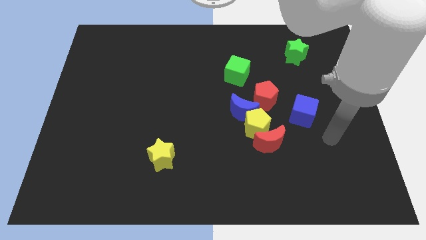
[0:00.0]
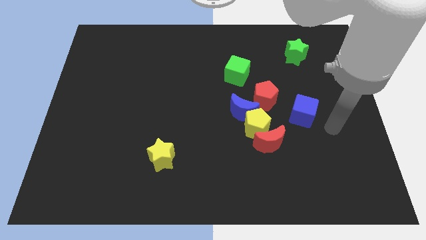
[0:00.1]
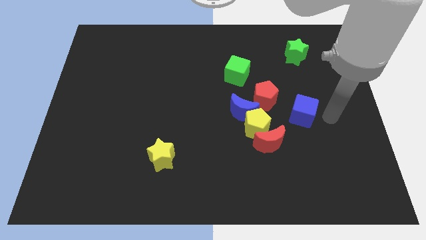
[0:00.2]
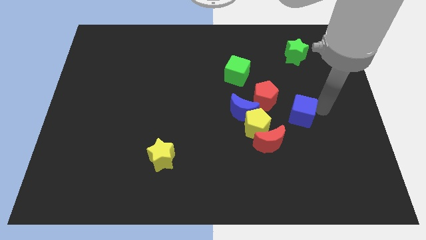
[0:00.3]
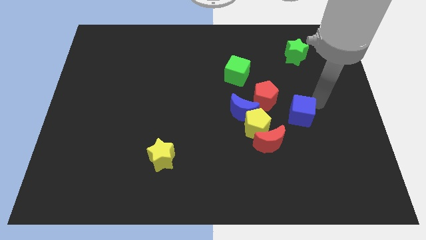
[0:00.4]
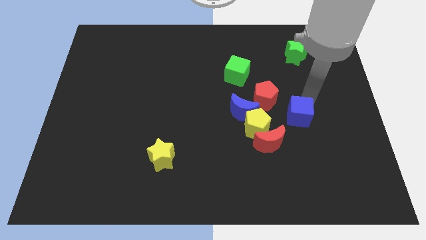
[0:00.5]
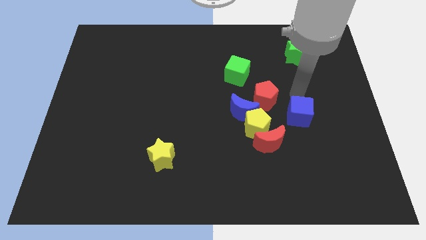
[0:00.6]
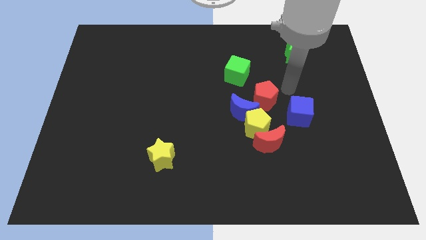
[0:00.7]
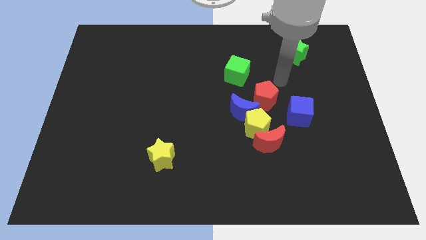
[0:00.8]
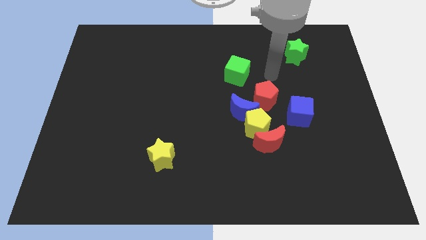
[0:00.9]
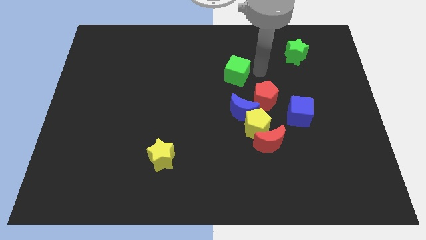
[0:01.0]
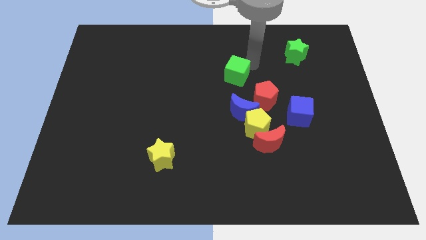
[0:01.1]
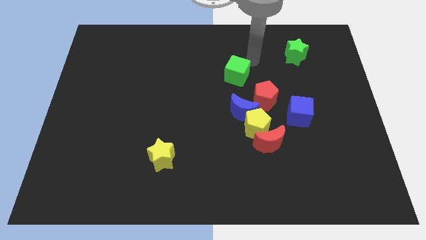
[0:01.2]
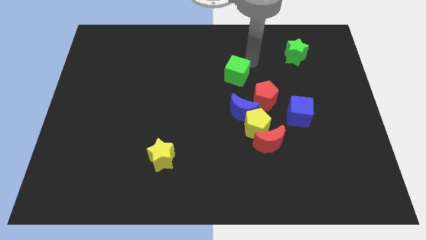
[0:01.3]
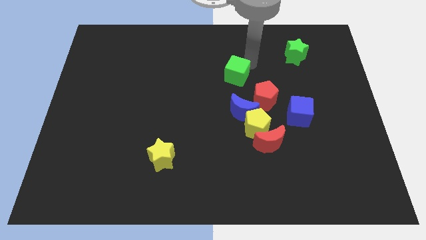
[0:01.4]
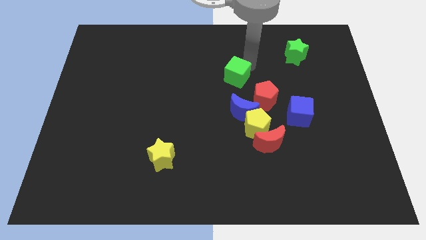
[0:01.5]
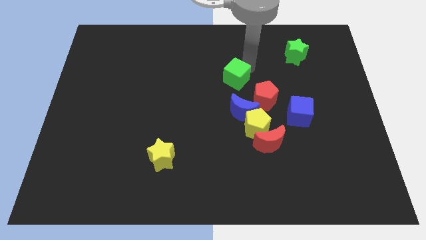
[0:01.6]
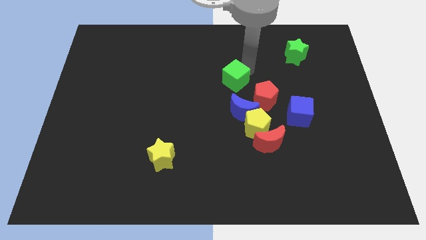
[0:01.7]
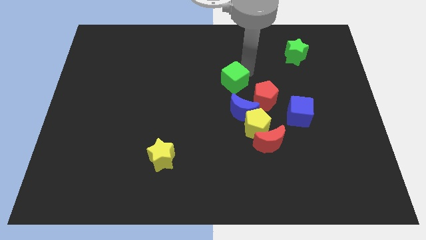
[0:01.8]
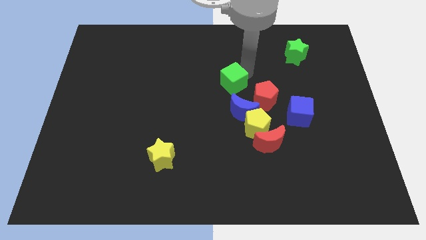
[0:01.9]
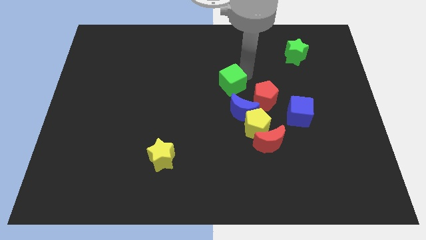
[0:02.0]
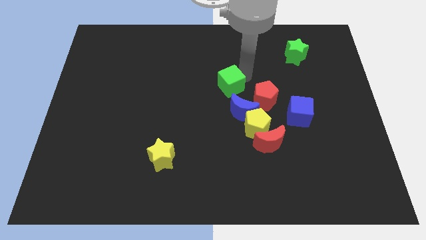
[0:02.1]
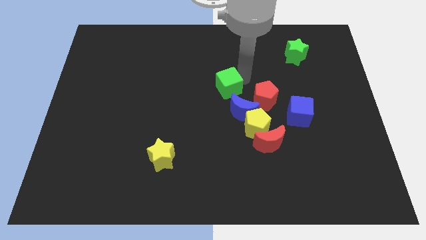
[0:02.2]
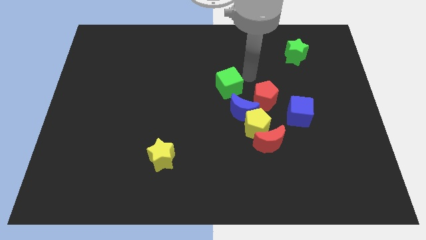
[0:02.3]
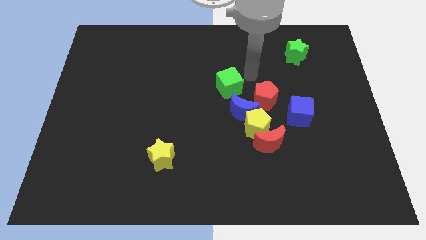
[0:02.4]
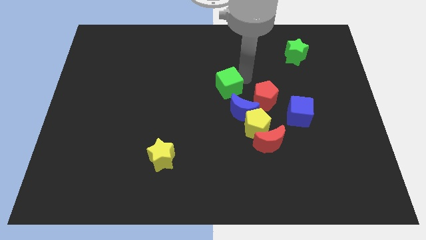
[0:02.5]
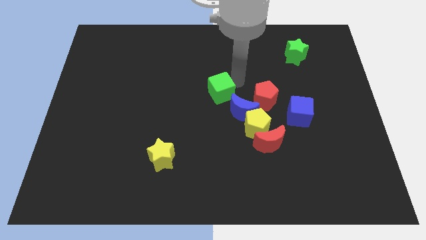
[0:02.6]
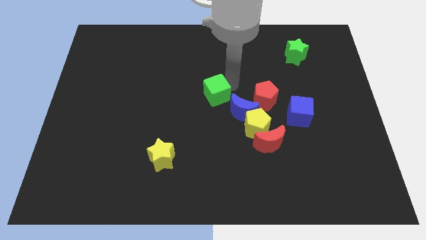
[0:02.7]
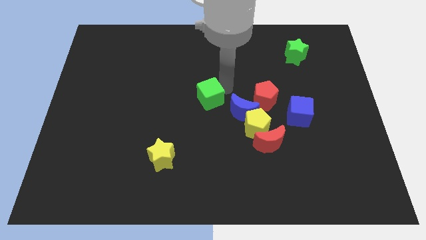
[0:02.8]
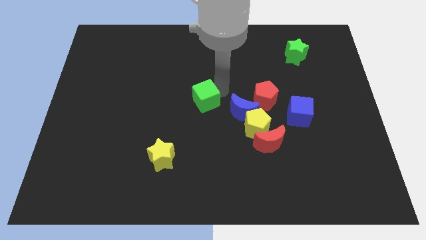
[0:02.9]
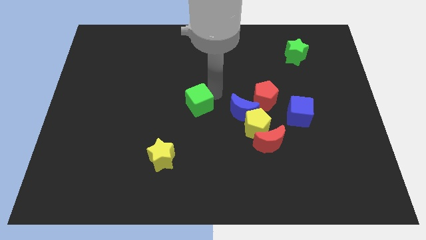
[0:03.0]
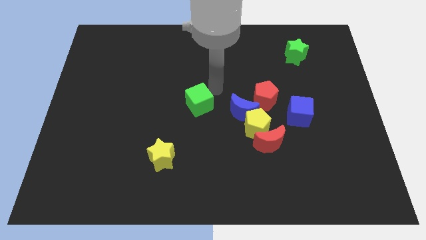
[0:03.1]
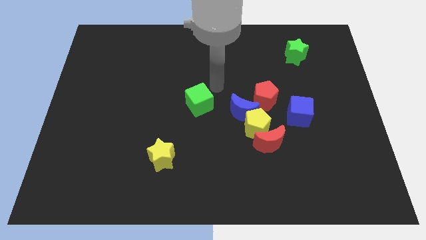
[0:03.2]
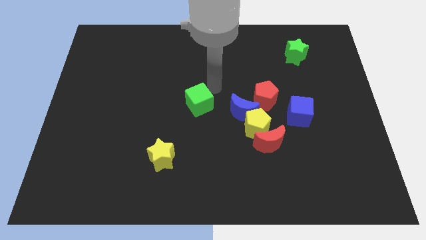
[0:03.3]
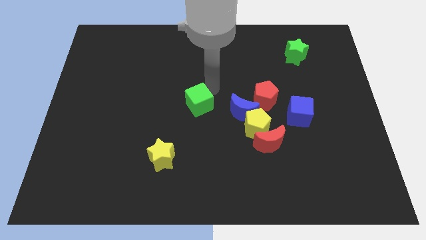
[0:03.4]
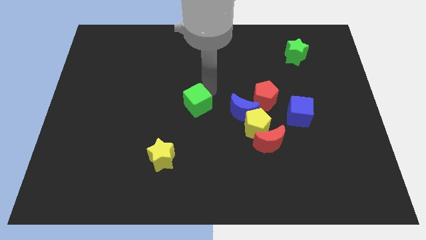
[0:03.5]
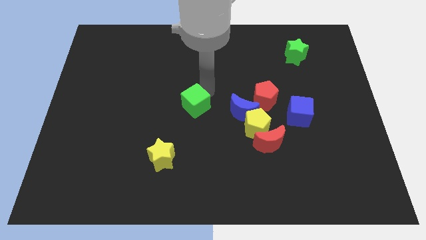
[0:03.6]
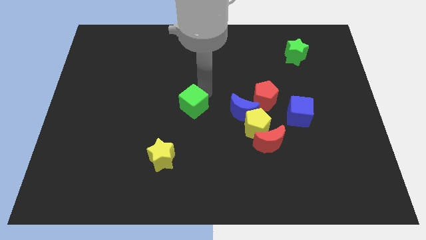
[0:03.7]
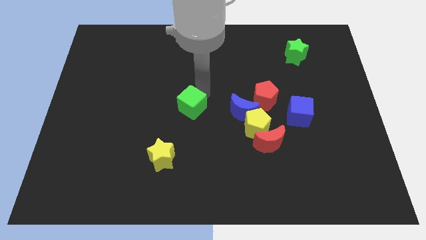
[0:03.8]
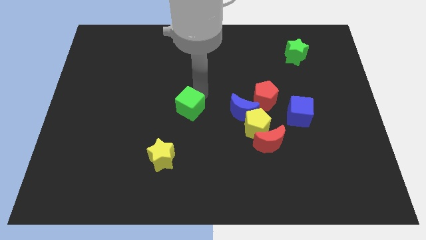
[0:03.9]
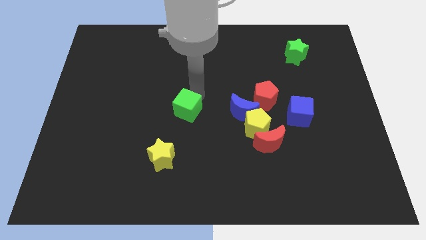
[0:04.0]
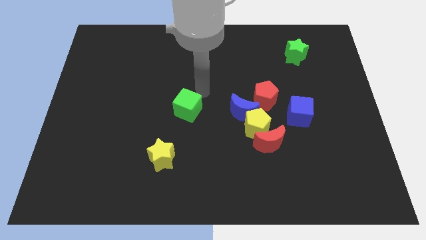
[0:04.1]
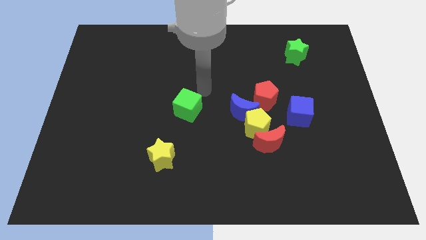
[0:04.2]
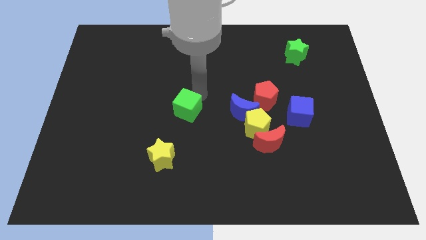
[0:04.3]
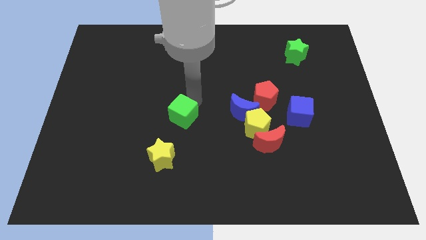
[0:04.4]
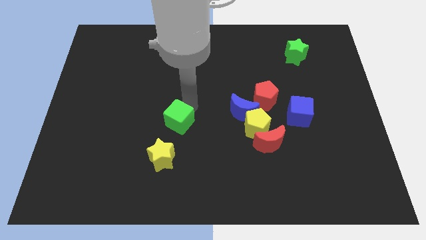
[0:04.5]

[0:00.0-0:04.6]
slide the green cube diagonally downwards and to the left

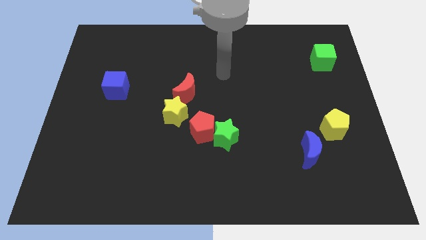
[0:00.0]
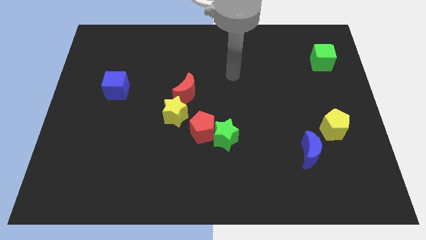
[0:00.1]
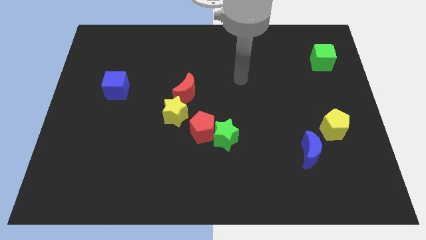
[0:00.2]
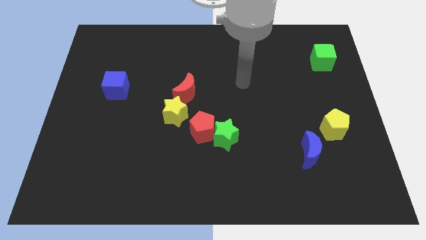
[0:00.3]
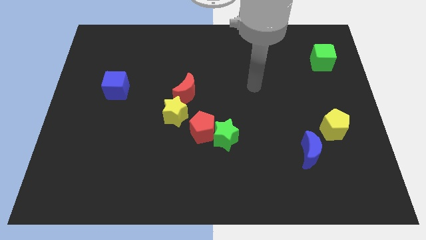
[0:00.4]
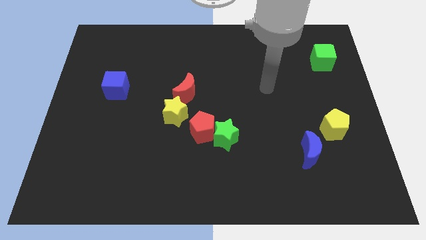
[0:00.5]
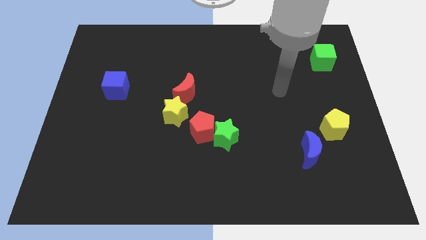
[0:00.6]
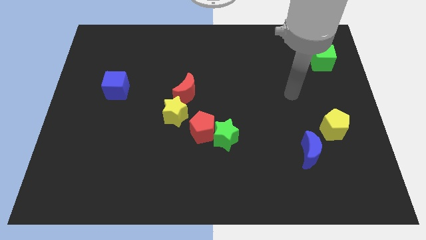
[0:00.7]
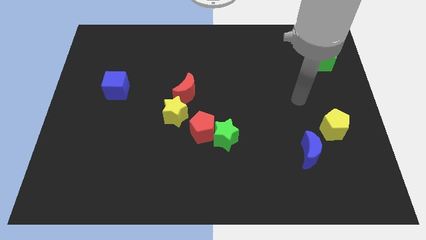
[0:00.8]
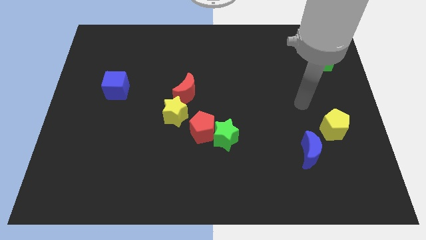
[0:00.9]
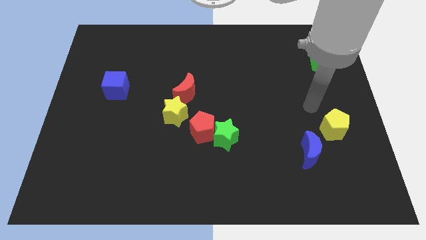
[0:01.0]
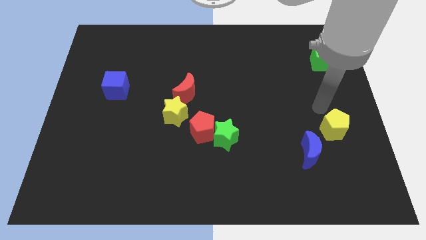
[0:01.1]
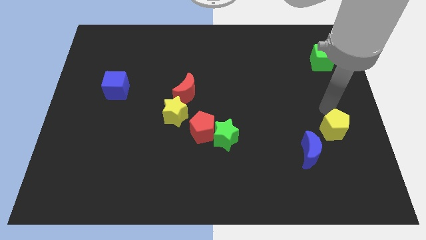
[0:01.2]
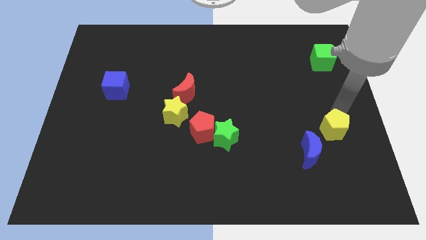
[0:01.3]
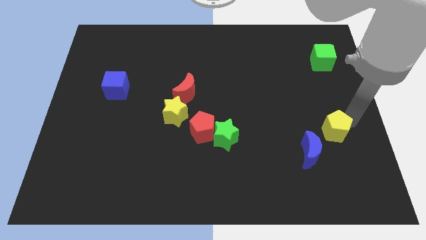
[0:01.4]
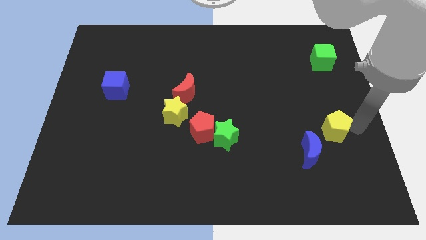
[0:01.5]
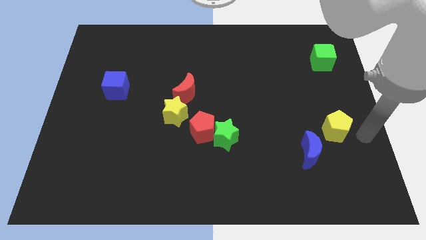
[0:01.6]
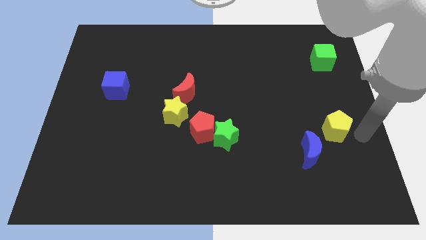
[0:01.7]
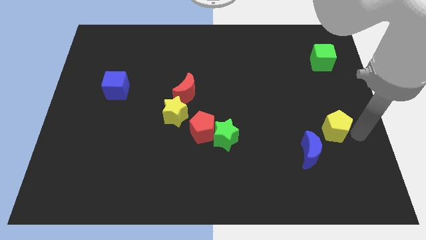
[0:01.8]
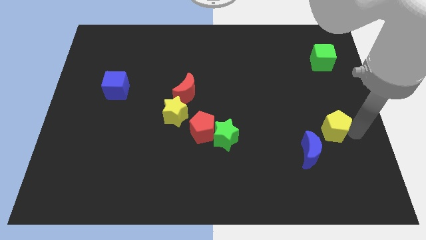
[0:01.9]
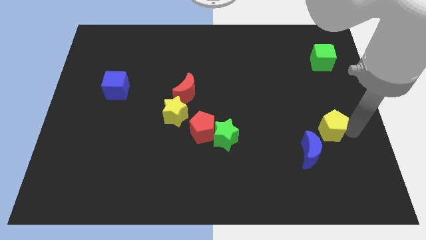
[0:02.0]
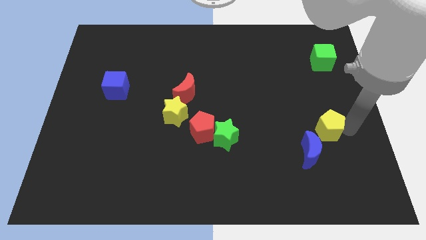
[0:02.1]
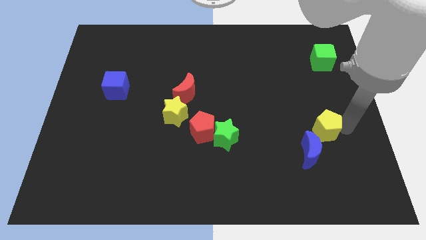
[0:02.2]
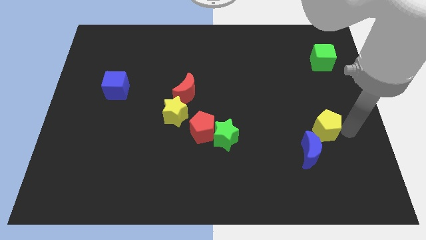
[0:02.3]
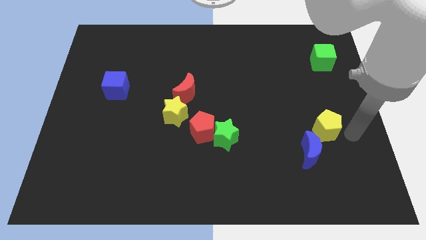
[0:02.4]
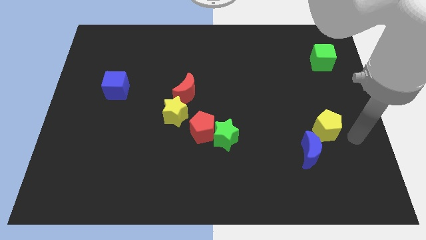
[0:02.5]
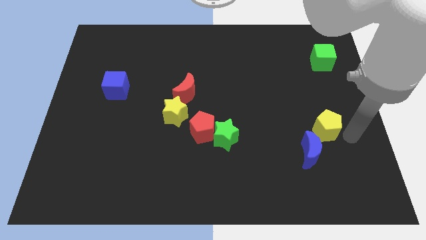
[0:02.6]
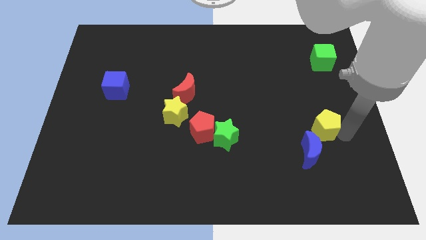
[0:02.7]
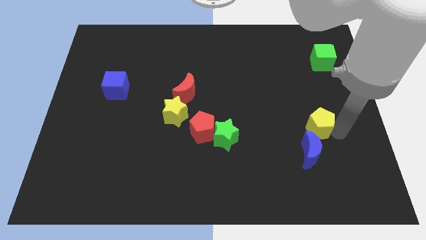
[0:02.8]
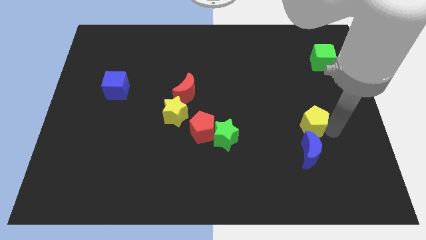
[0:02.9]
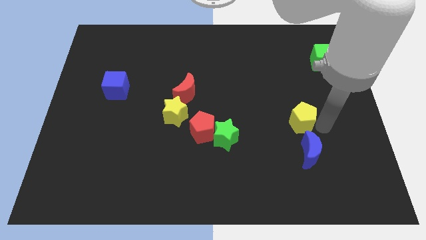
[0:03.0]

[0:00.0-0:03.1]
move the yellow pentagon left slightly
